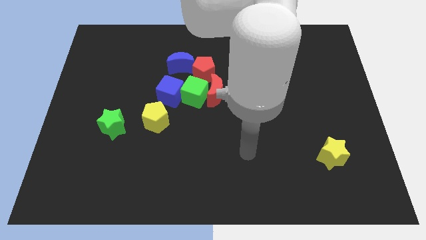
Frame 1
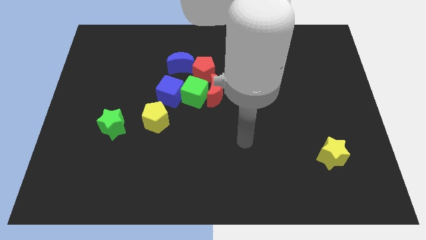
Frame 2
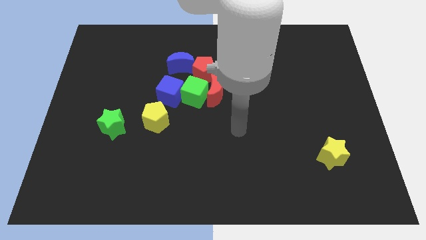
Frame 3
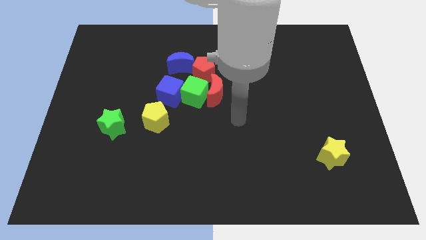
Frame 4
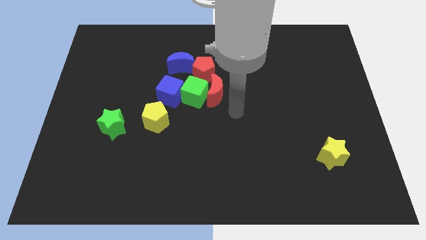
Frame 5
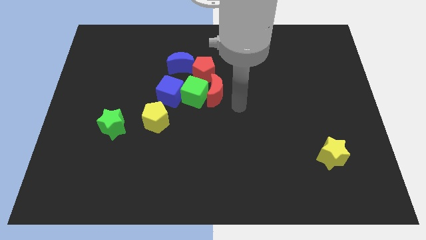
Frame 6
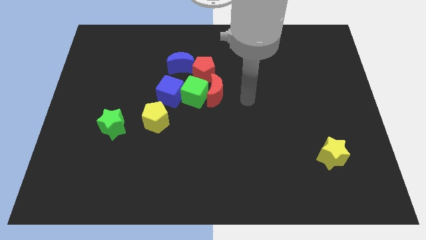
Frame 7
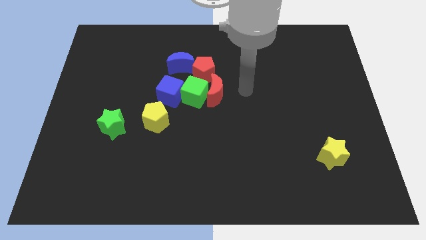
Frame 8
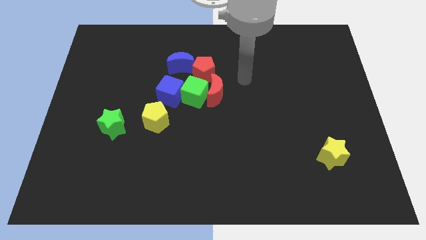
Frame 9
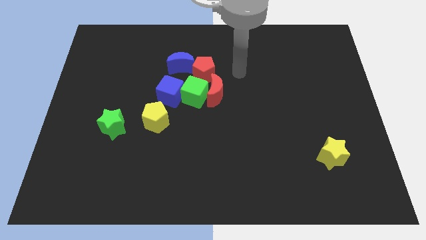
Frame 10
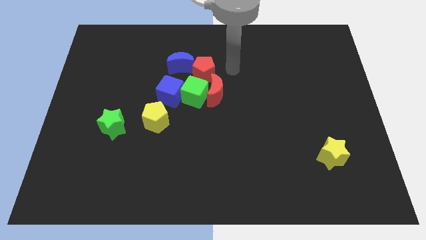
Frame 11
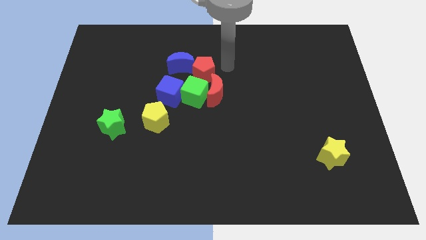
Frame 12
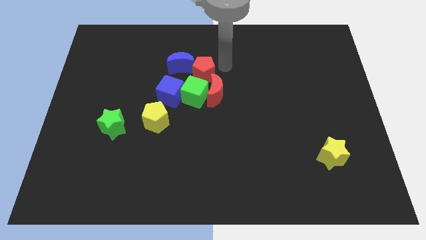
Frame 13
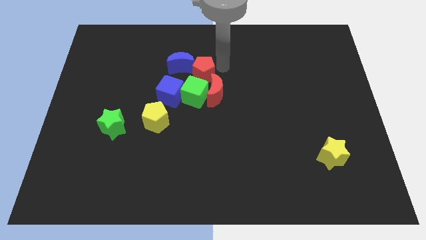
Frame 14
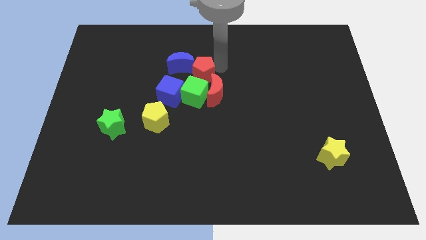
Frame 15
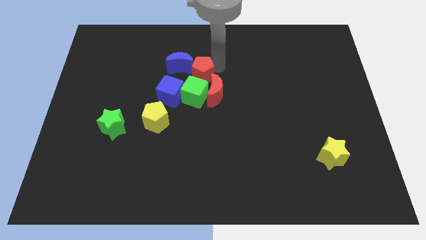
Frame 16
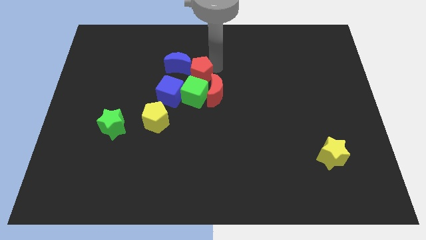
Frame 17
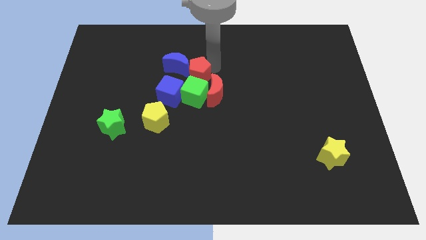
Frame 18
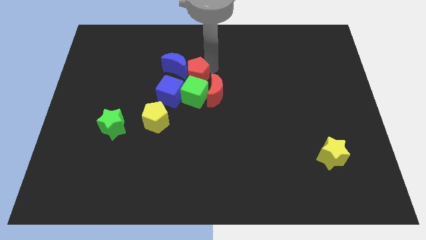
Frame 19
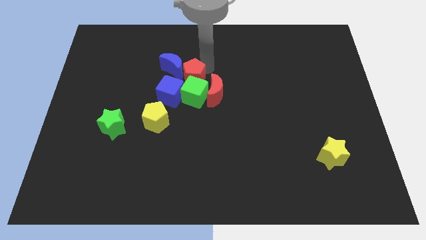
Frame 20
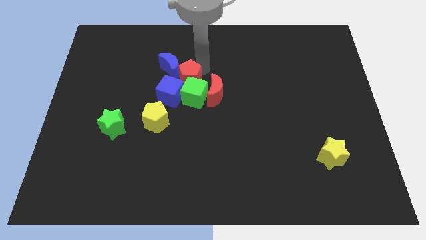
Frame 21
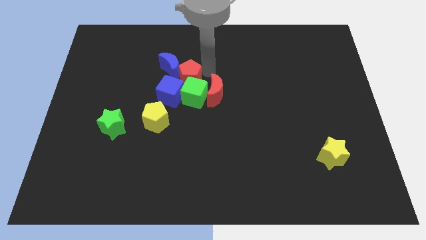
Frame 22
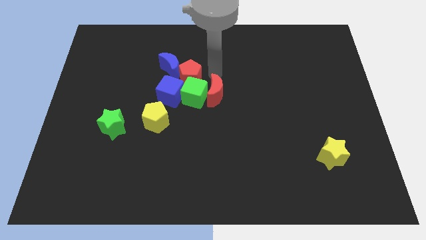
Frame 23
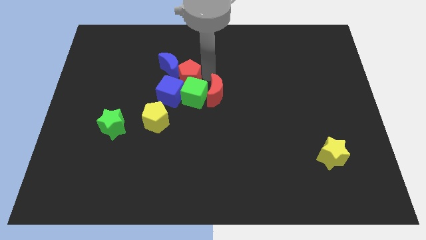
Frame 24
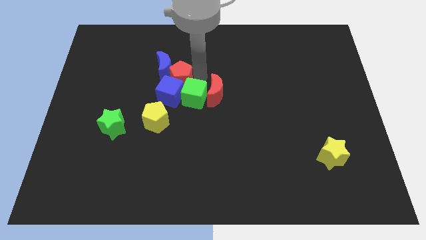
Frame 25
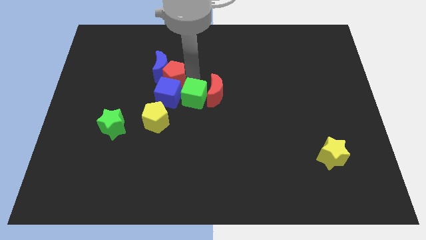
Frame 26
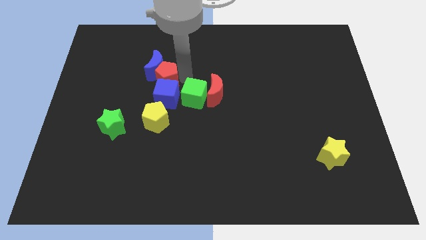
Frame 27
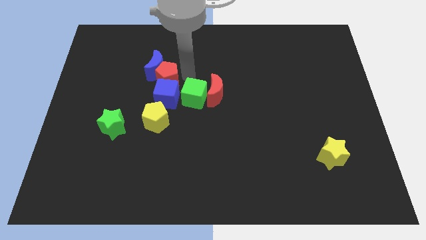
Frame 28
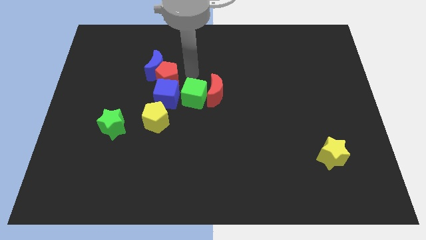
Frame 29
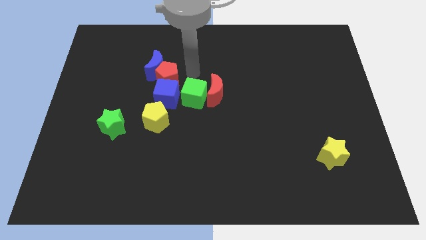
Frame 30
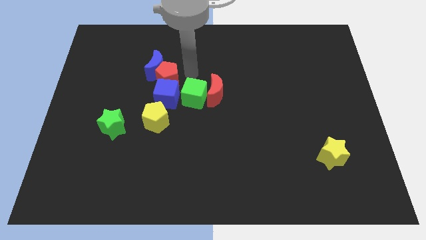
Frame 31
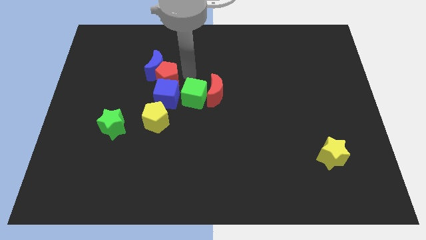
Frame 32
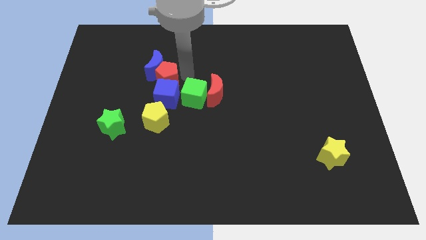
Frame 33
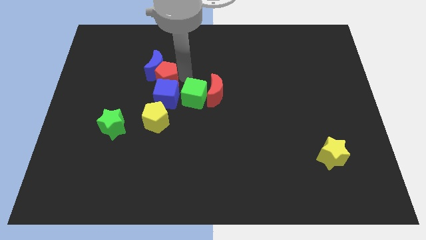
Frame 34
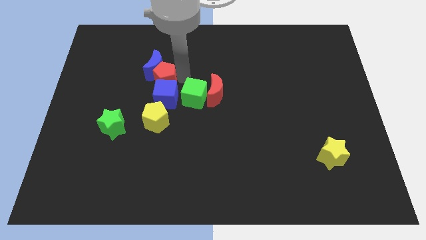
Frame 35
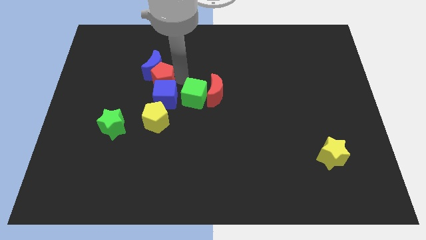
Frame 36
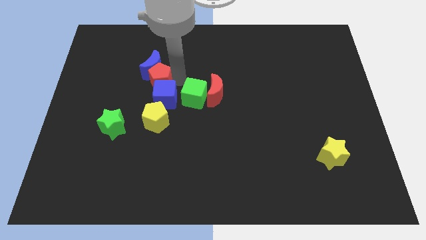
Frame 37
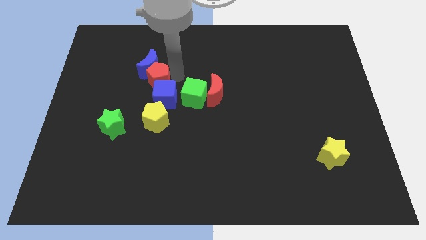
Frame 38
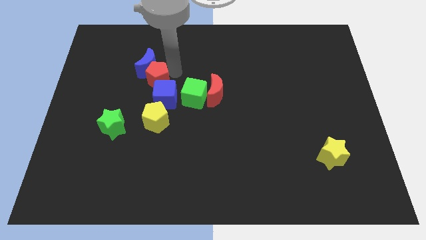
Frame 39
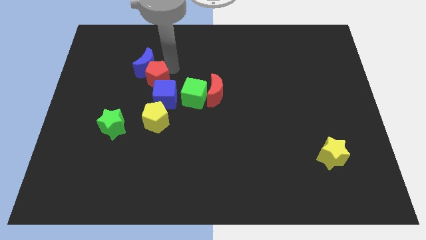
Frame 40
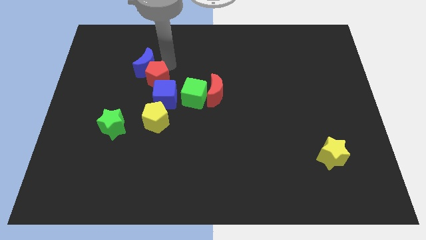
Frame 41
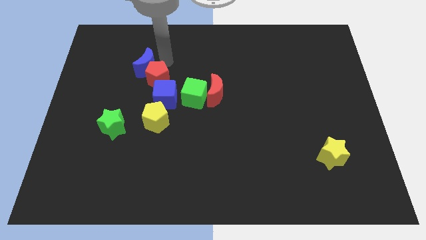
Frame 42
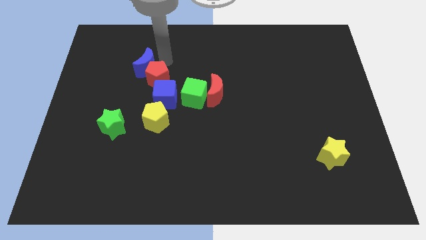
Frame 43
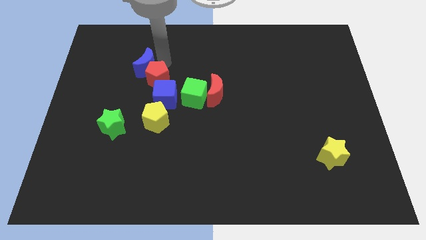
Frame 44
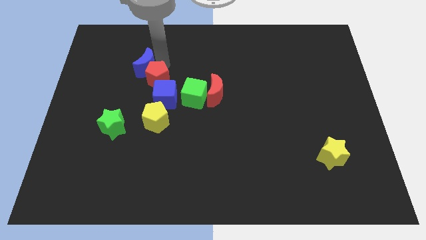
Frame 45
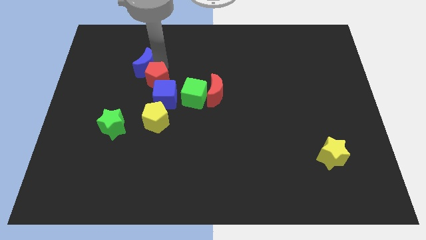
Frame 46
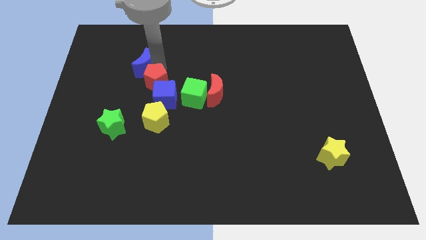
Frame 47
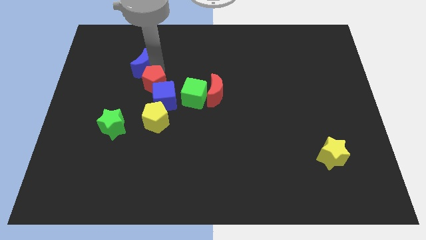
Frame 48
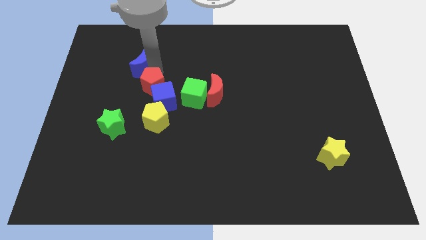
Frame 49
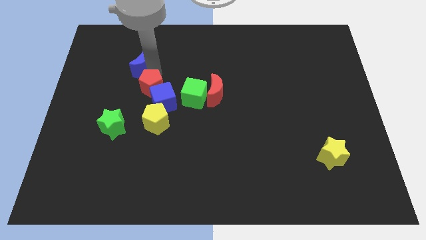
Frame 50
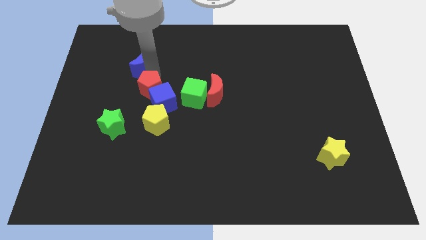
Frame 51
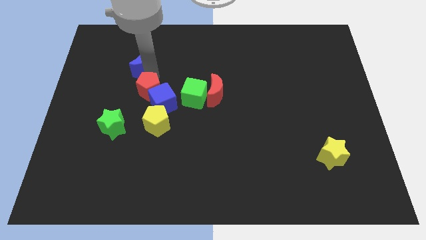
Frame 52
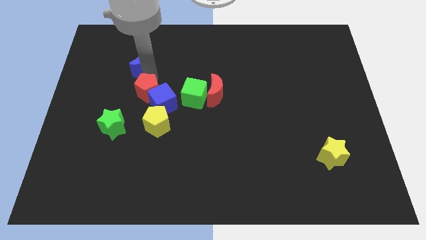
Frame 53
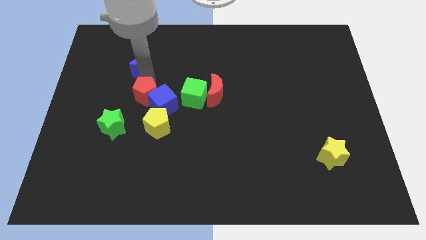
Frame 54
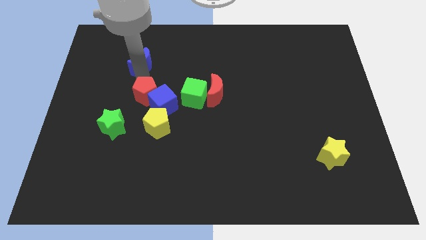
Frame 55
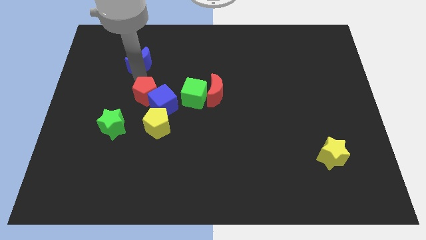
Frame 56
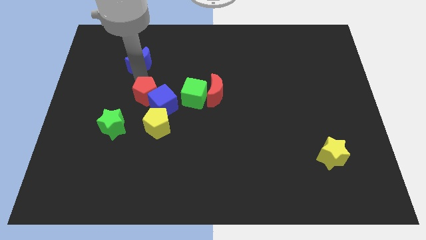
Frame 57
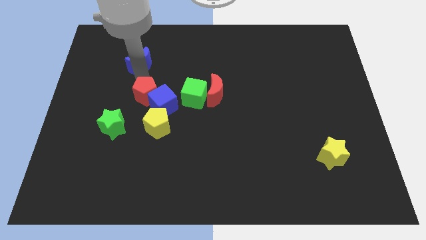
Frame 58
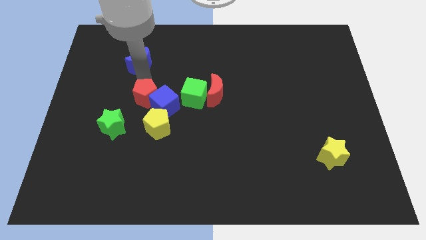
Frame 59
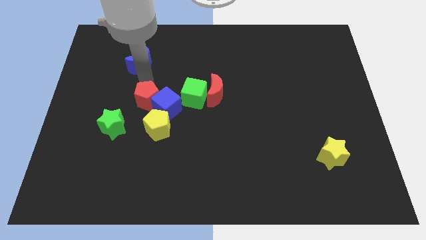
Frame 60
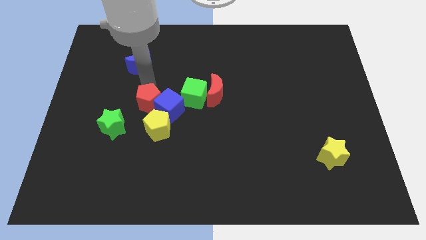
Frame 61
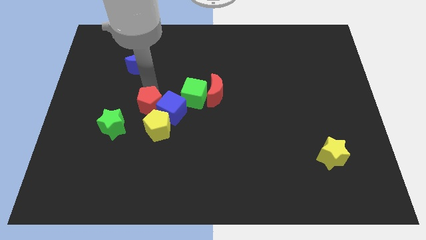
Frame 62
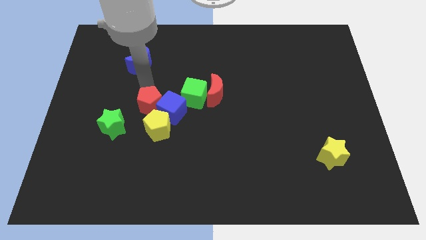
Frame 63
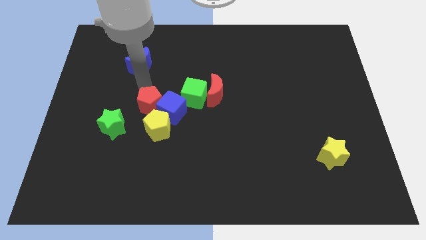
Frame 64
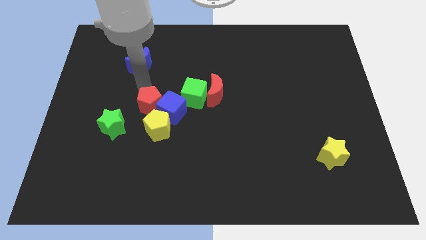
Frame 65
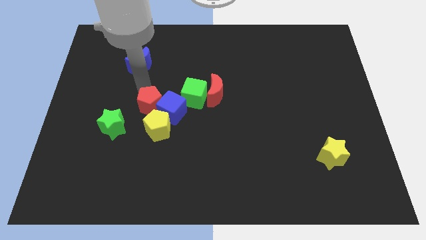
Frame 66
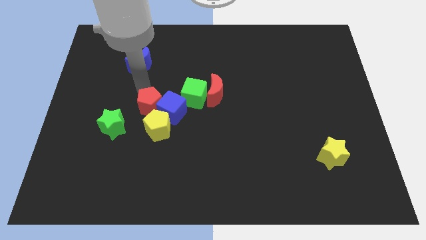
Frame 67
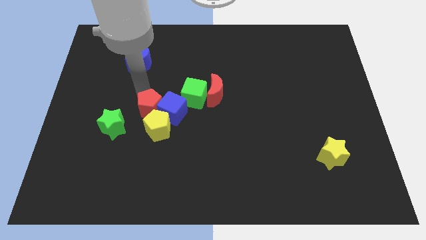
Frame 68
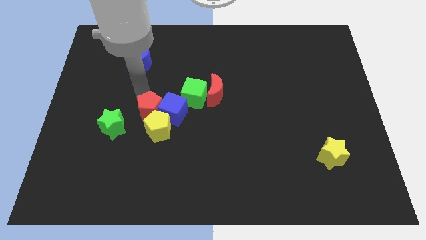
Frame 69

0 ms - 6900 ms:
move the red pentagon to the yellow pentagon

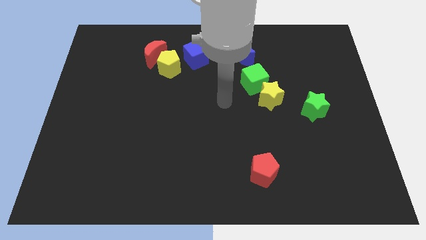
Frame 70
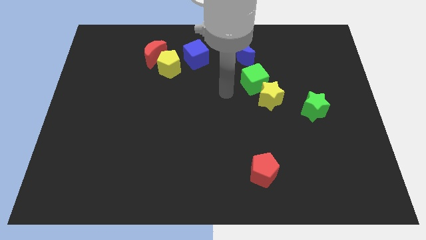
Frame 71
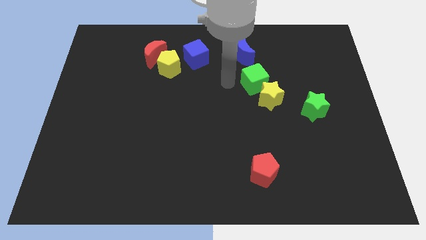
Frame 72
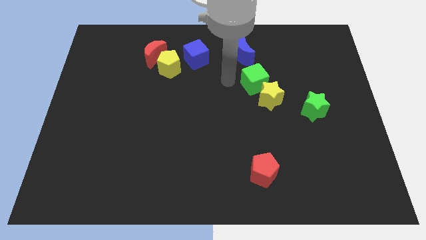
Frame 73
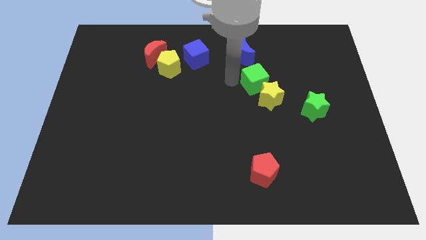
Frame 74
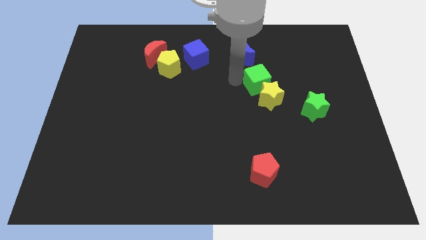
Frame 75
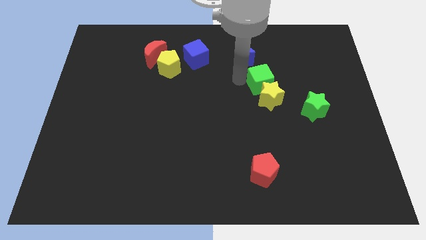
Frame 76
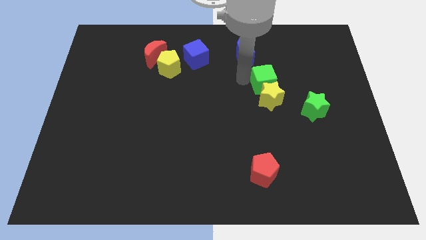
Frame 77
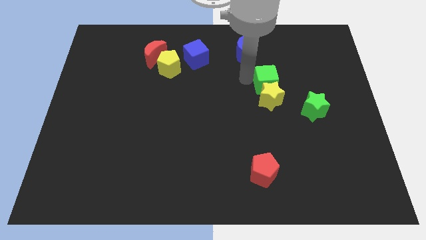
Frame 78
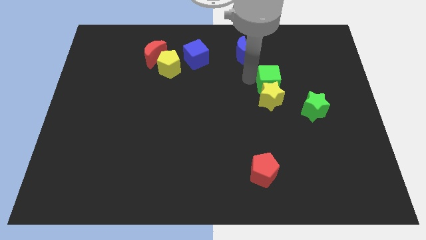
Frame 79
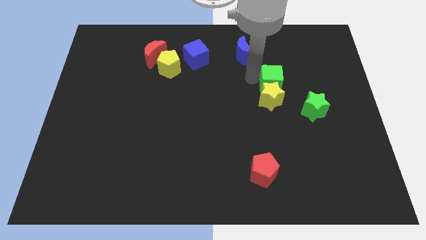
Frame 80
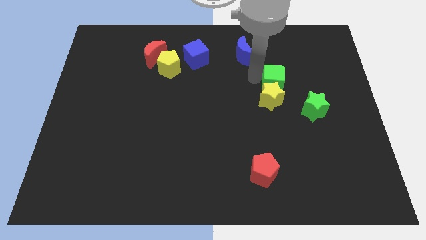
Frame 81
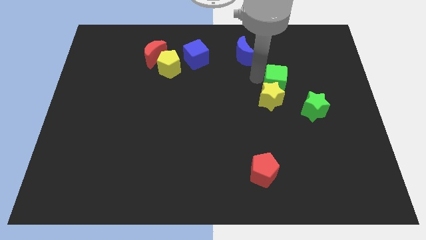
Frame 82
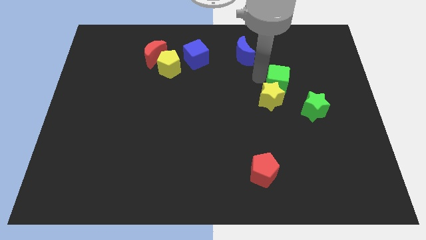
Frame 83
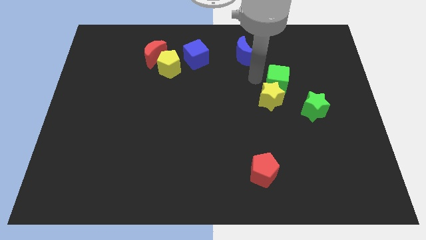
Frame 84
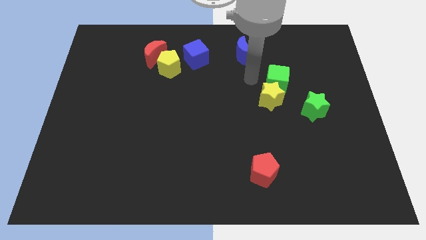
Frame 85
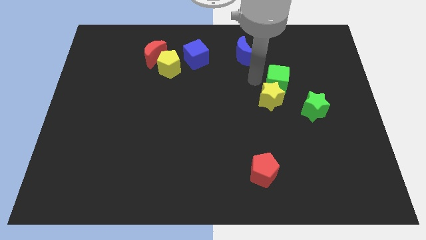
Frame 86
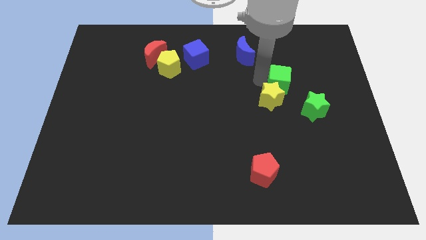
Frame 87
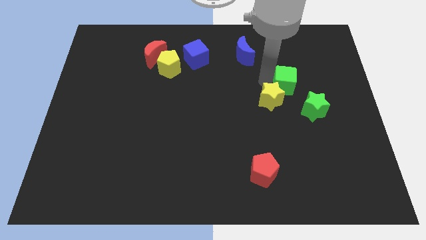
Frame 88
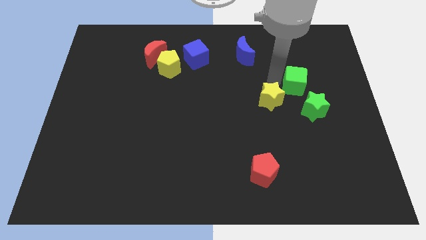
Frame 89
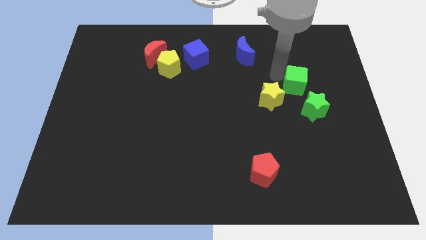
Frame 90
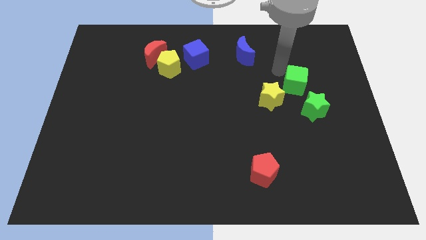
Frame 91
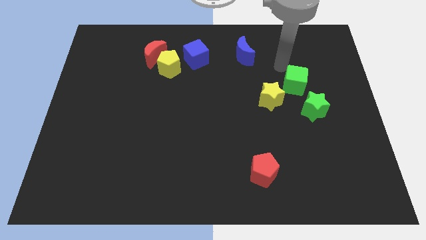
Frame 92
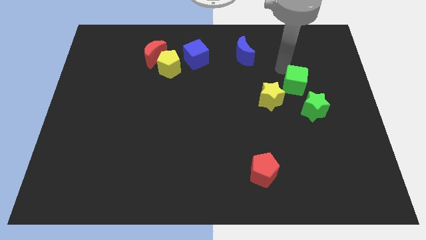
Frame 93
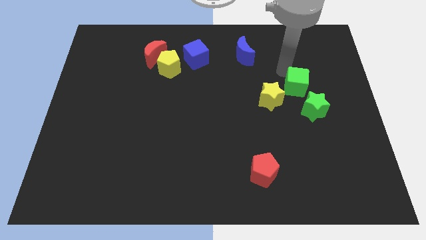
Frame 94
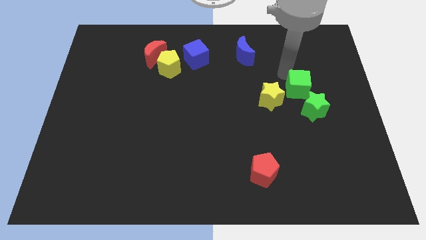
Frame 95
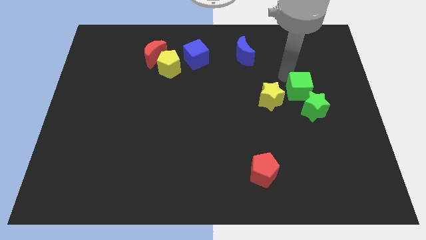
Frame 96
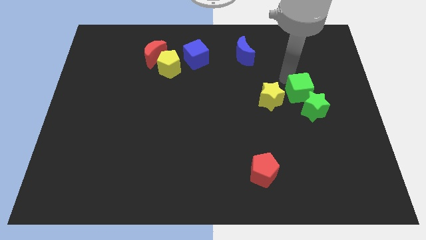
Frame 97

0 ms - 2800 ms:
push the green cube close to the green star
